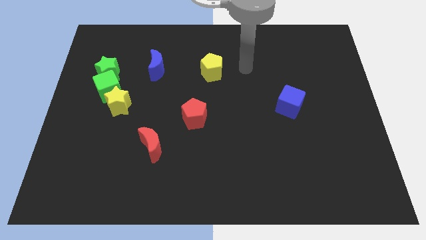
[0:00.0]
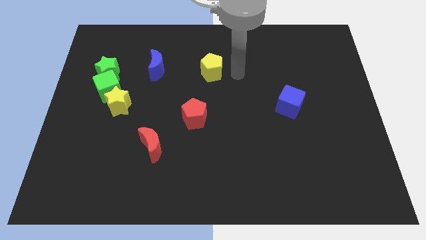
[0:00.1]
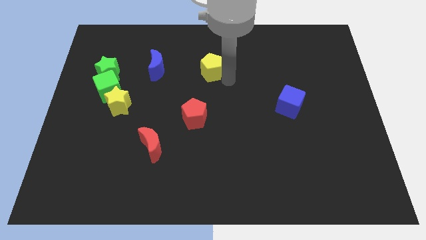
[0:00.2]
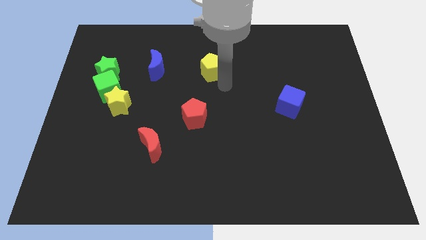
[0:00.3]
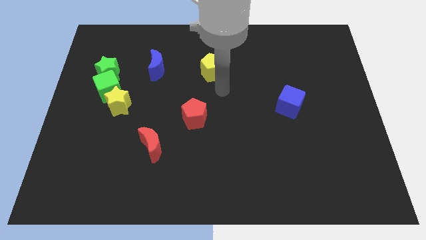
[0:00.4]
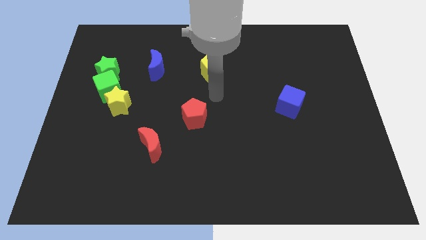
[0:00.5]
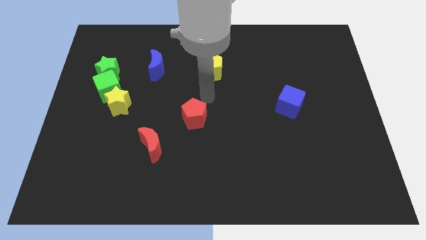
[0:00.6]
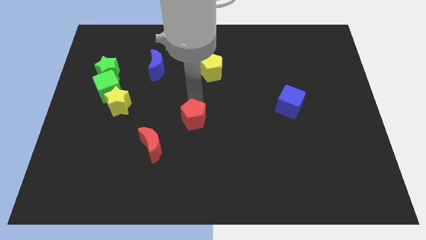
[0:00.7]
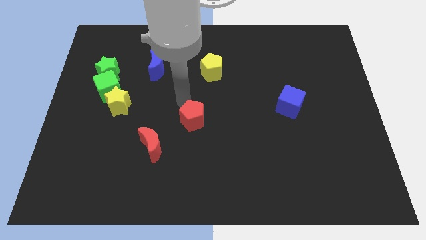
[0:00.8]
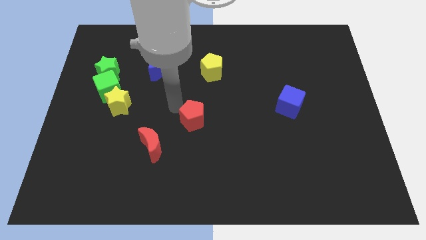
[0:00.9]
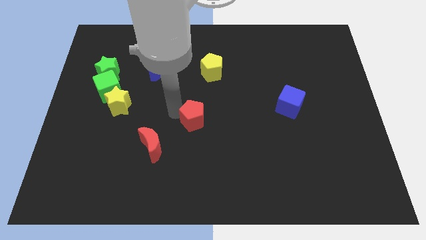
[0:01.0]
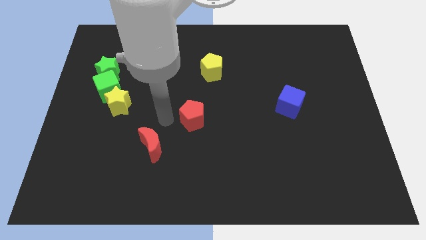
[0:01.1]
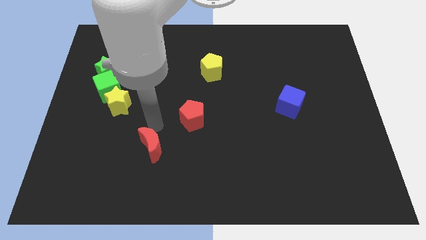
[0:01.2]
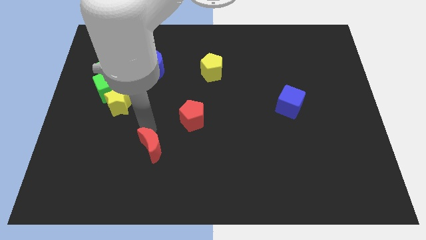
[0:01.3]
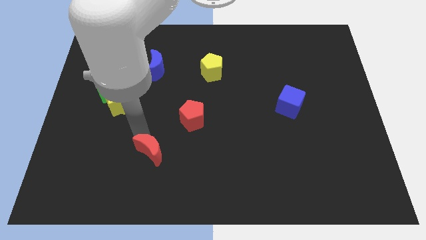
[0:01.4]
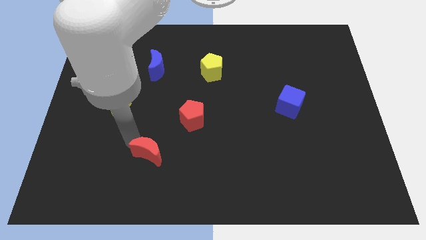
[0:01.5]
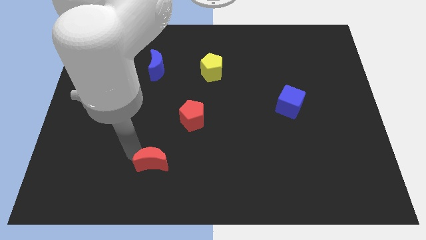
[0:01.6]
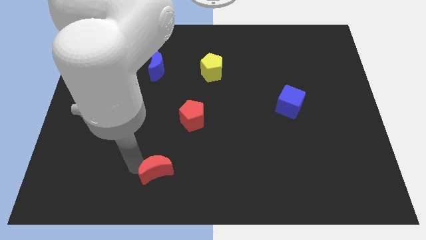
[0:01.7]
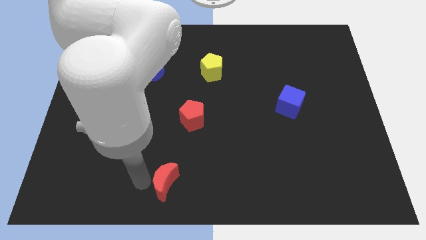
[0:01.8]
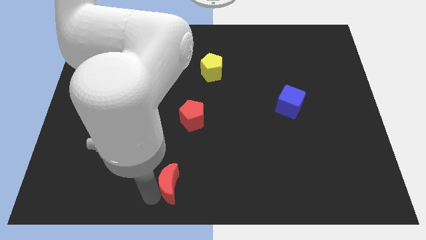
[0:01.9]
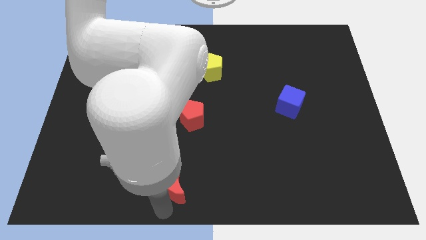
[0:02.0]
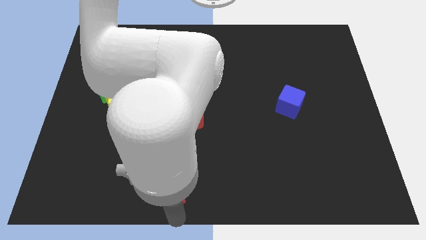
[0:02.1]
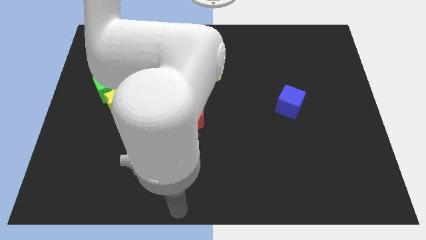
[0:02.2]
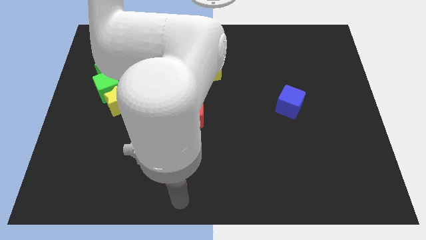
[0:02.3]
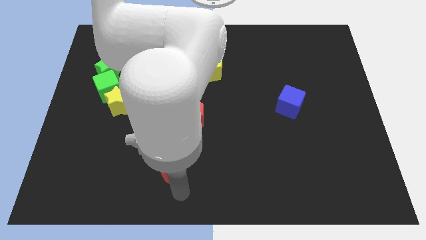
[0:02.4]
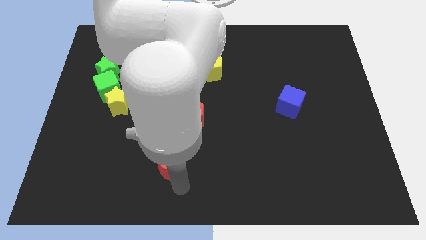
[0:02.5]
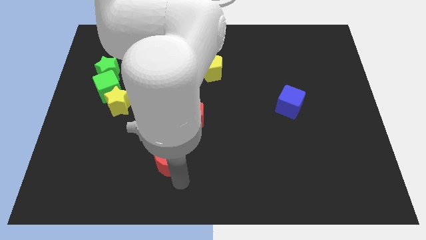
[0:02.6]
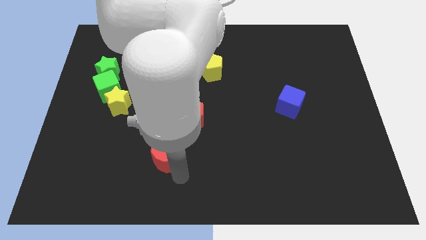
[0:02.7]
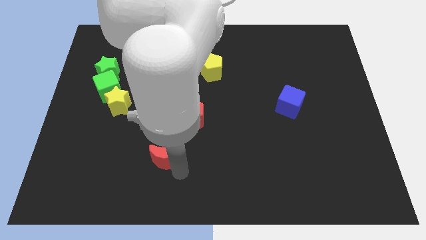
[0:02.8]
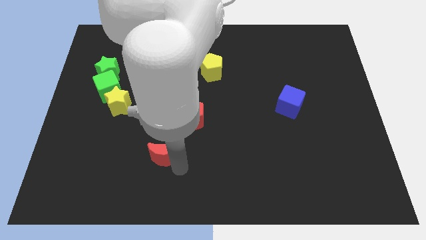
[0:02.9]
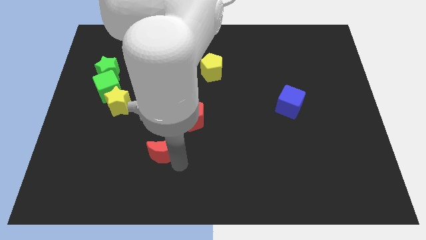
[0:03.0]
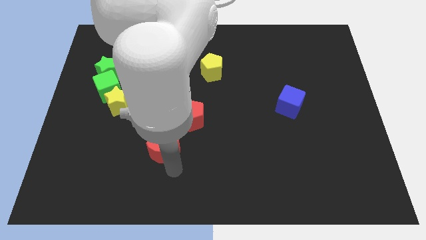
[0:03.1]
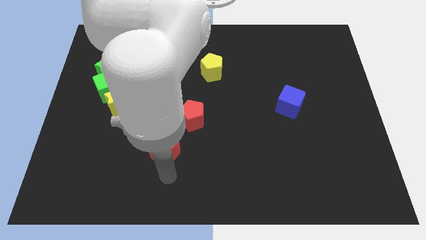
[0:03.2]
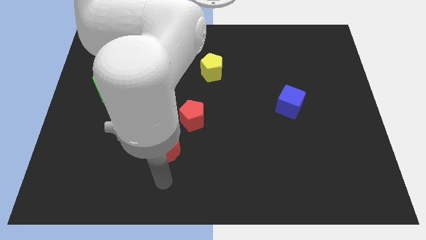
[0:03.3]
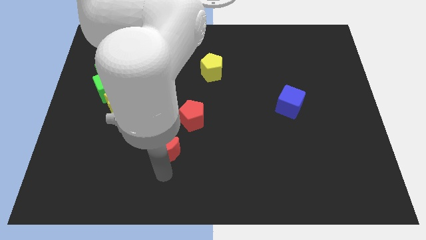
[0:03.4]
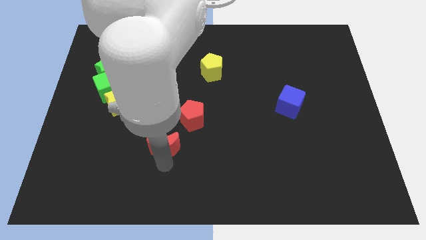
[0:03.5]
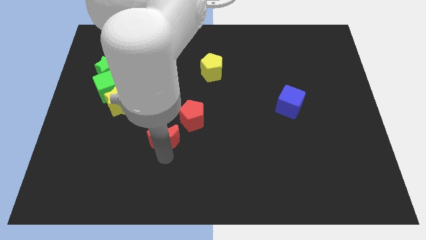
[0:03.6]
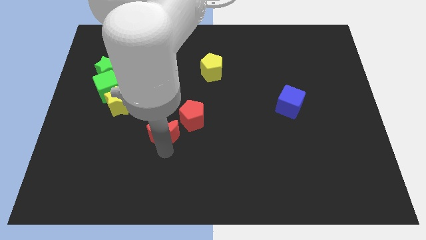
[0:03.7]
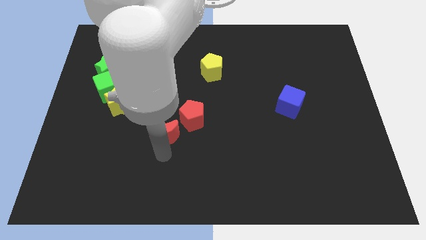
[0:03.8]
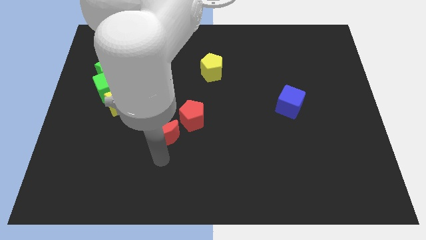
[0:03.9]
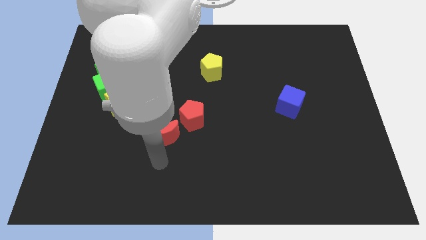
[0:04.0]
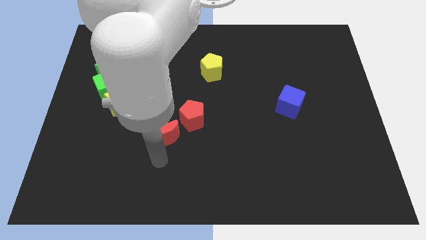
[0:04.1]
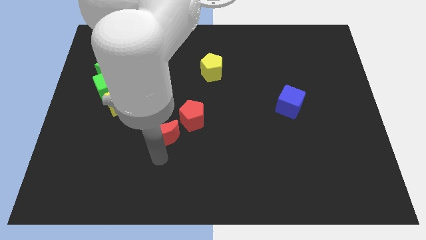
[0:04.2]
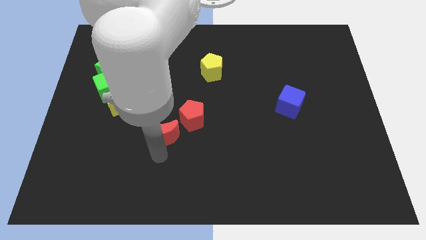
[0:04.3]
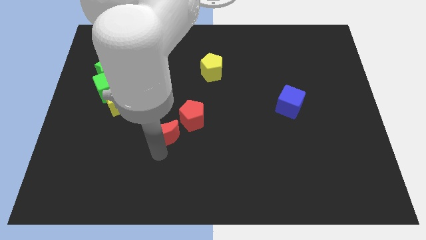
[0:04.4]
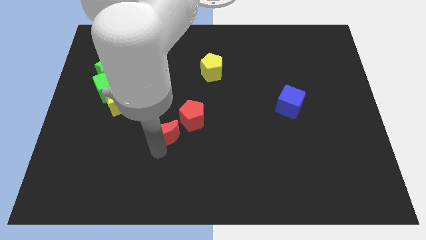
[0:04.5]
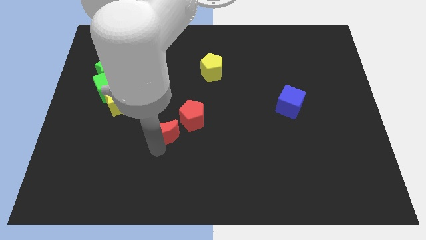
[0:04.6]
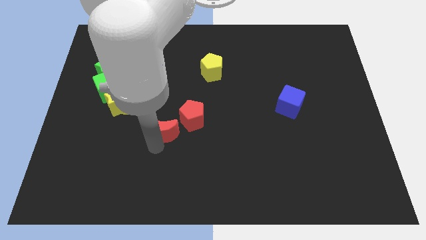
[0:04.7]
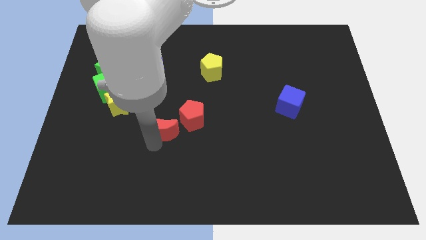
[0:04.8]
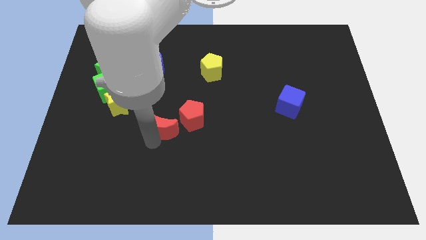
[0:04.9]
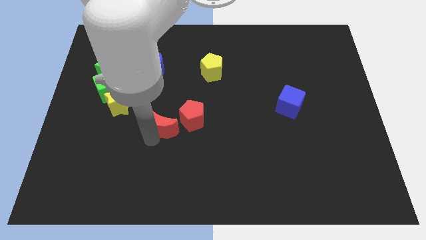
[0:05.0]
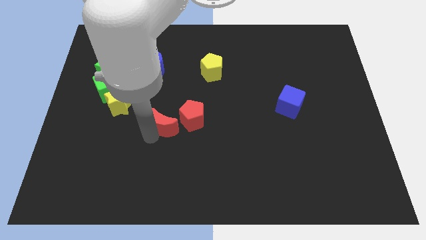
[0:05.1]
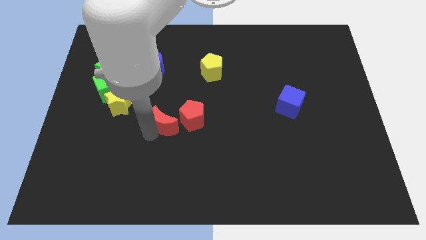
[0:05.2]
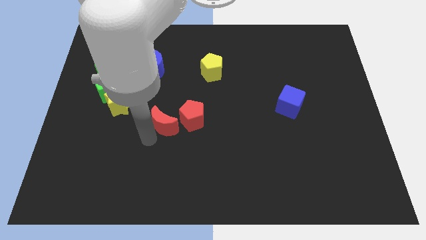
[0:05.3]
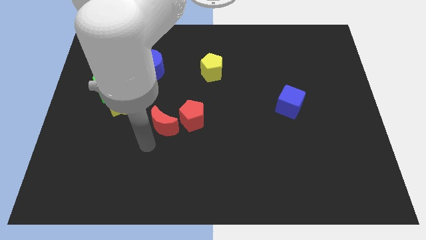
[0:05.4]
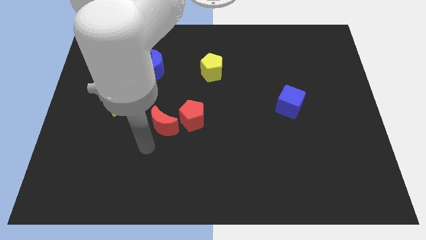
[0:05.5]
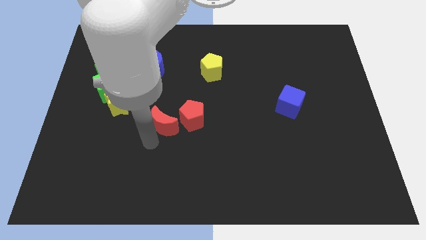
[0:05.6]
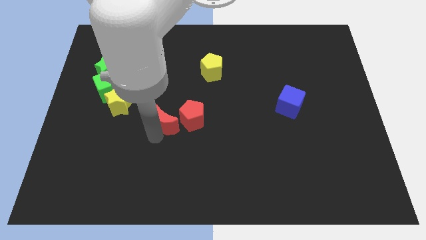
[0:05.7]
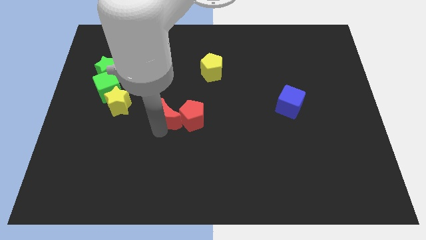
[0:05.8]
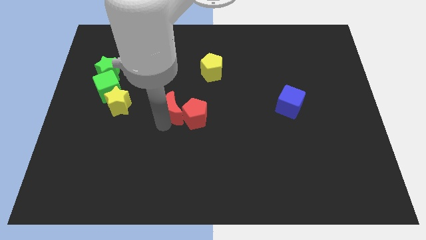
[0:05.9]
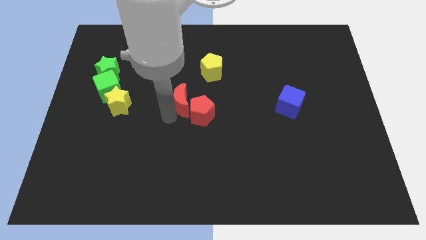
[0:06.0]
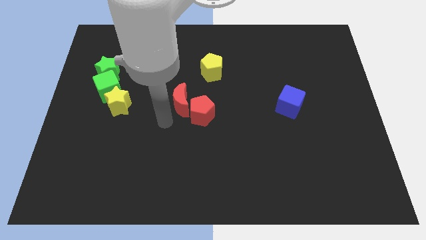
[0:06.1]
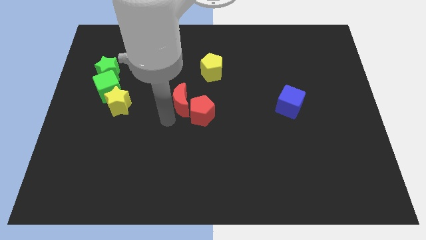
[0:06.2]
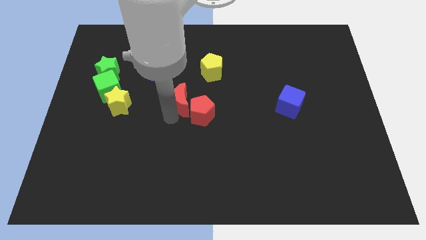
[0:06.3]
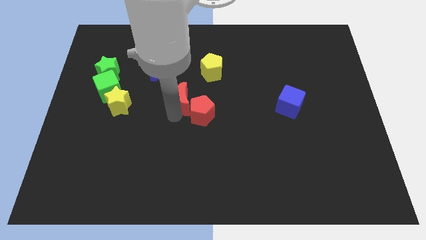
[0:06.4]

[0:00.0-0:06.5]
put the red moon to the top side of the red pentagon

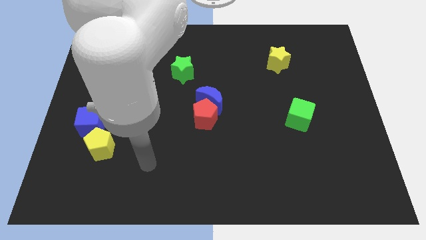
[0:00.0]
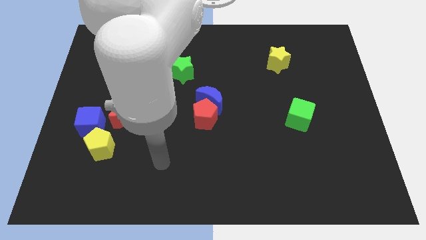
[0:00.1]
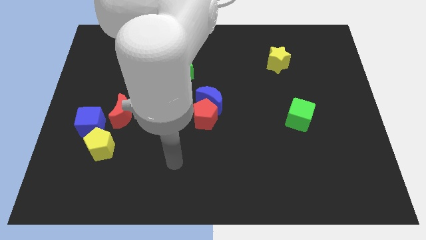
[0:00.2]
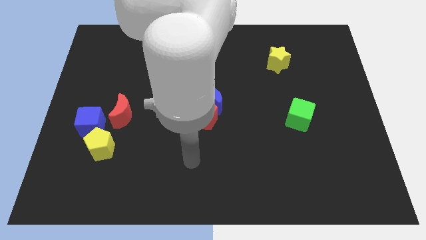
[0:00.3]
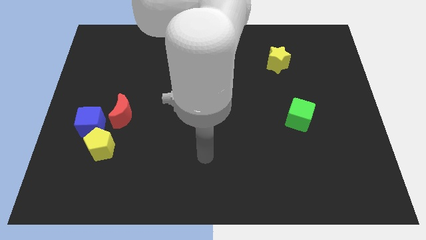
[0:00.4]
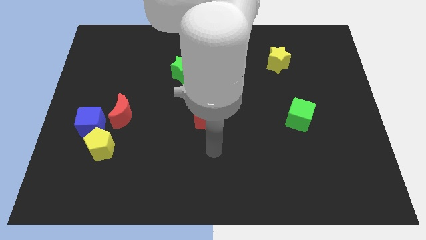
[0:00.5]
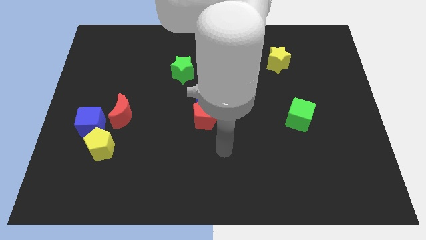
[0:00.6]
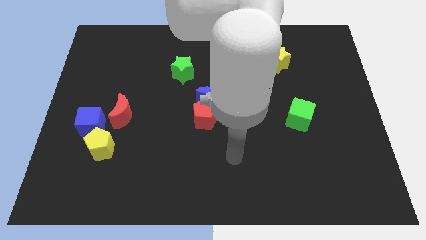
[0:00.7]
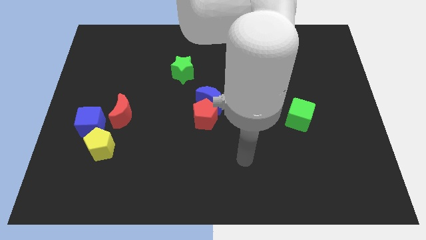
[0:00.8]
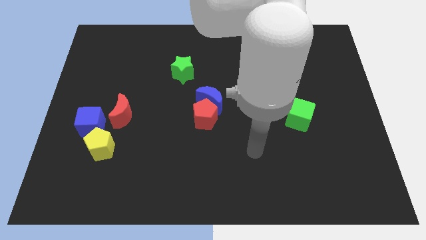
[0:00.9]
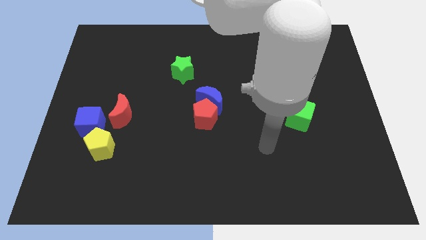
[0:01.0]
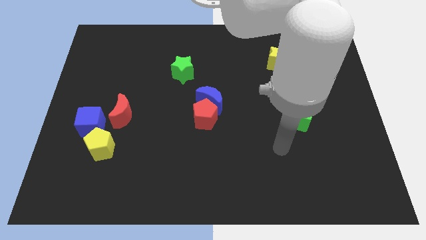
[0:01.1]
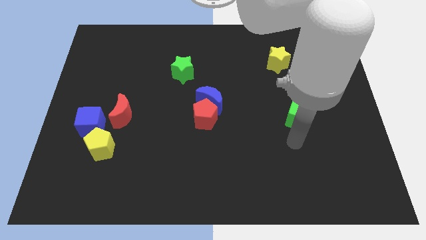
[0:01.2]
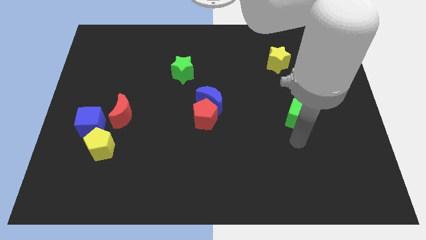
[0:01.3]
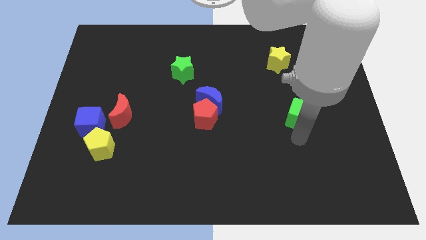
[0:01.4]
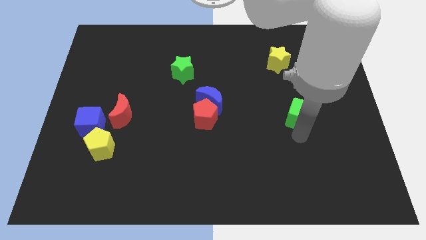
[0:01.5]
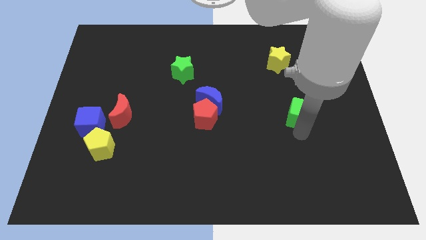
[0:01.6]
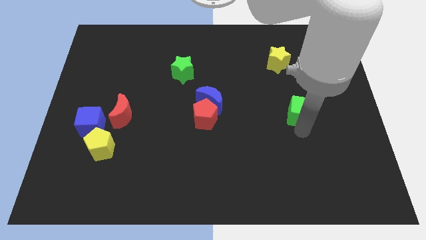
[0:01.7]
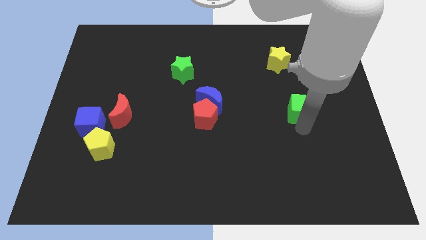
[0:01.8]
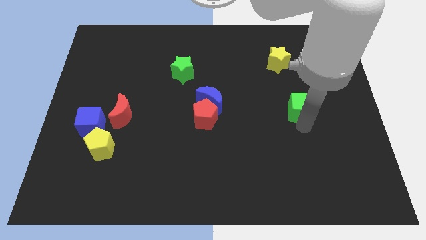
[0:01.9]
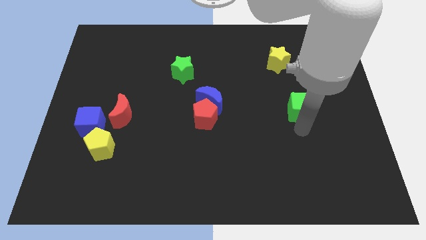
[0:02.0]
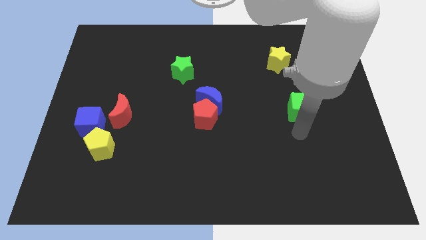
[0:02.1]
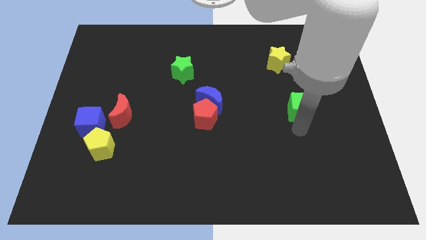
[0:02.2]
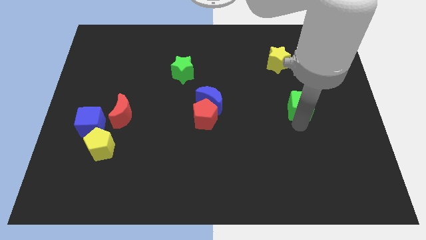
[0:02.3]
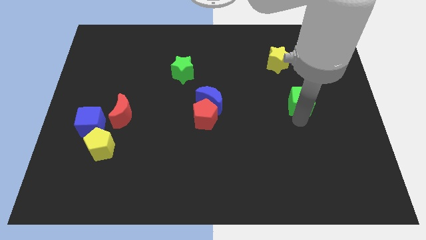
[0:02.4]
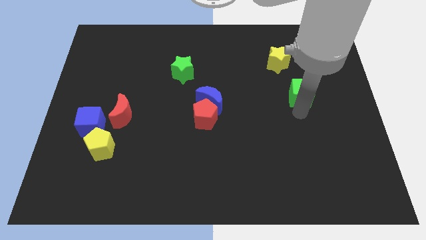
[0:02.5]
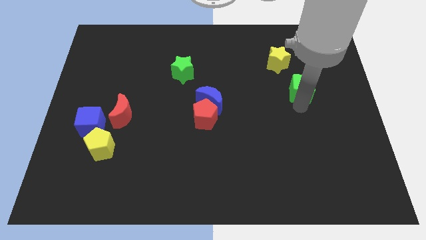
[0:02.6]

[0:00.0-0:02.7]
push the green cube diagonally down and to the right of the yellow star
